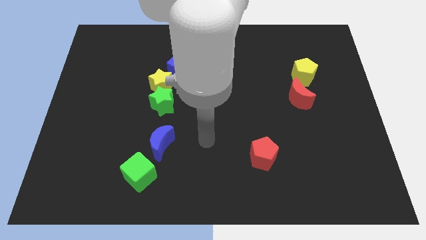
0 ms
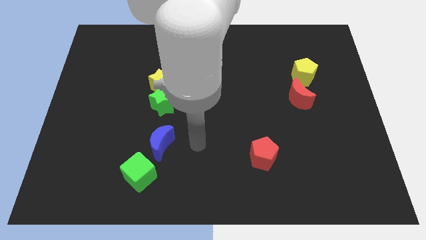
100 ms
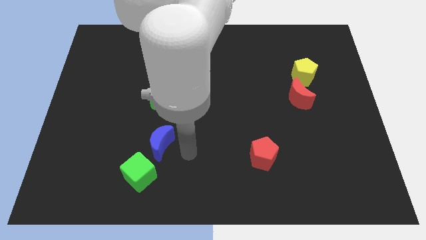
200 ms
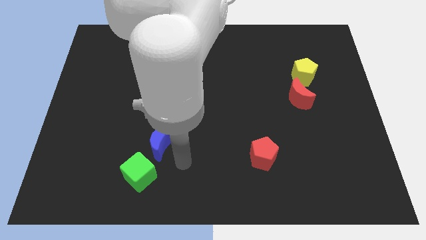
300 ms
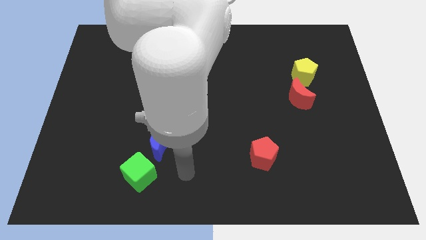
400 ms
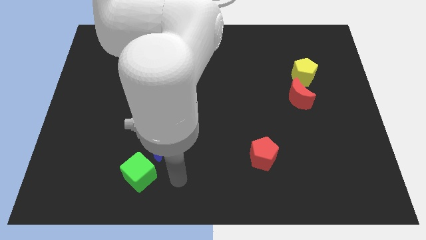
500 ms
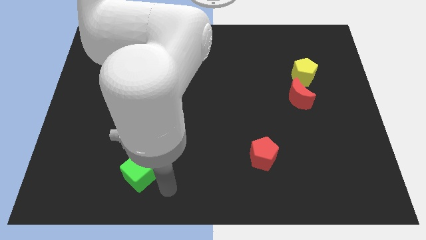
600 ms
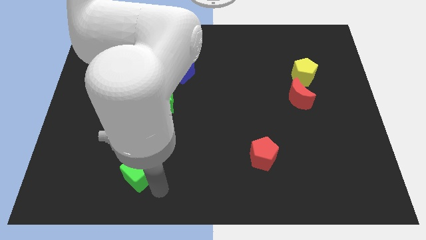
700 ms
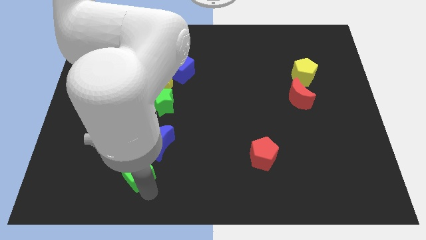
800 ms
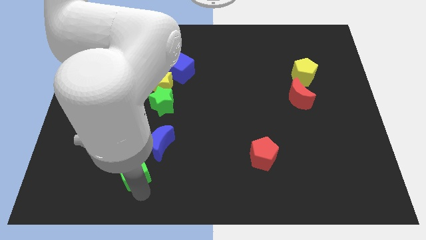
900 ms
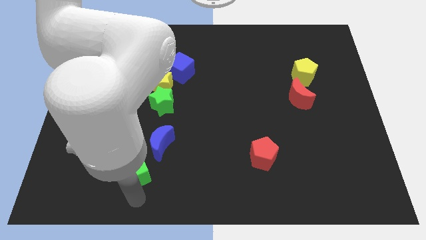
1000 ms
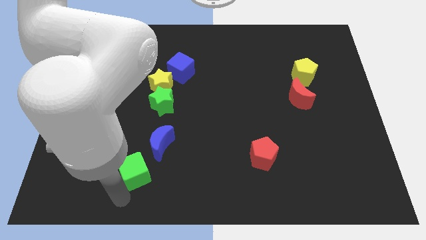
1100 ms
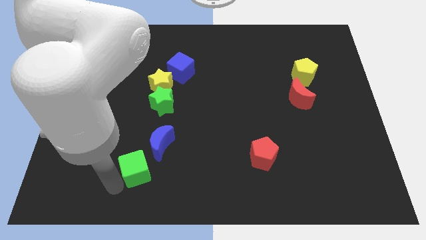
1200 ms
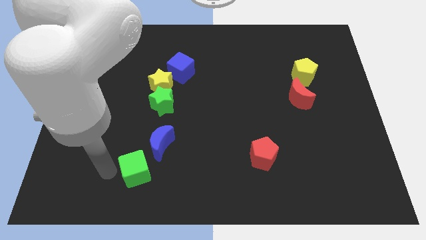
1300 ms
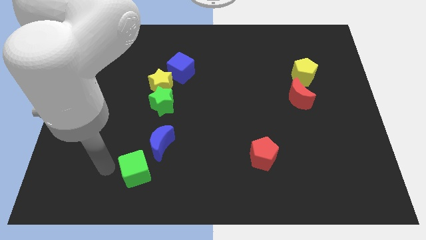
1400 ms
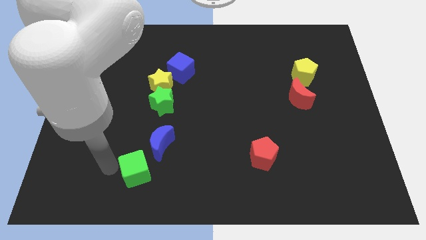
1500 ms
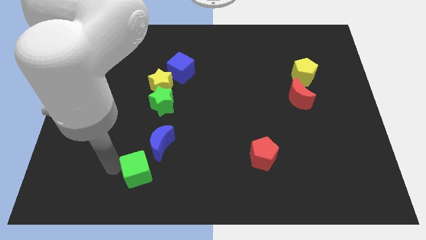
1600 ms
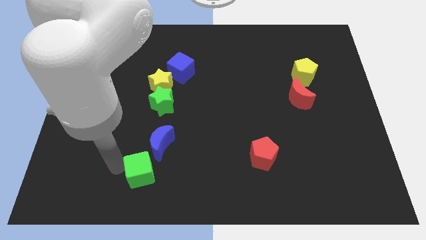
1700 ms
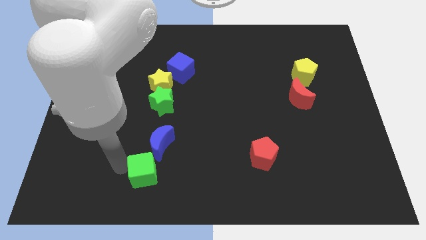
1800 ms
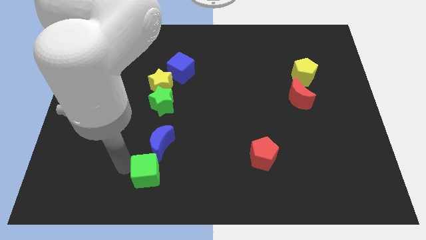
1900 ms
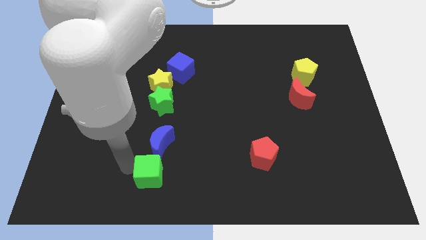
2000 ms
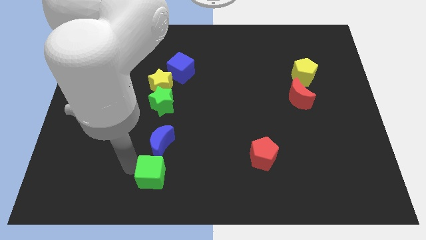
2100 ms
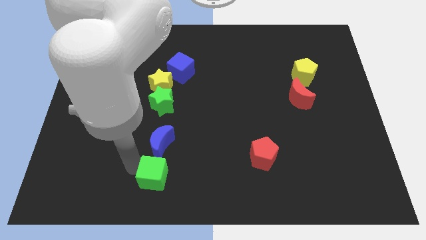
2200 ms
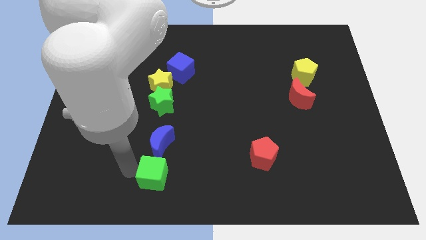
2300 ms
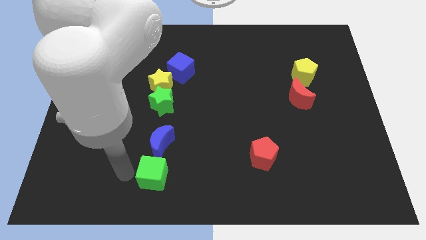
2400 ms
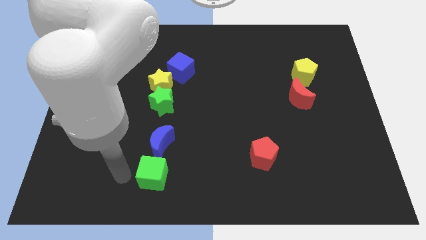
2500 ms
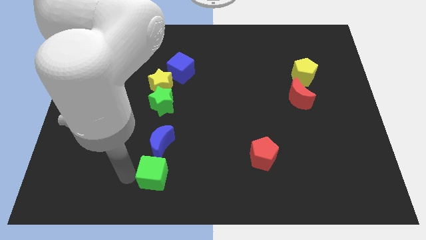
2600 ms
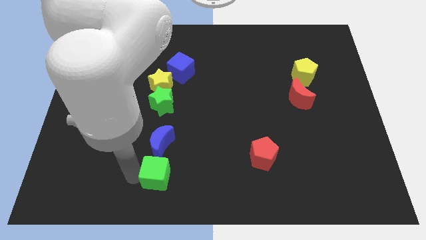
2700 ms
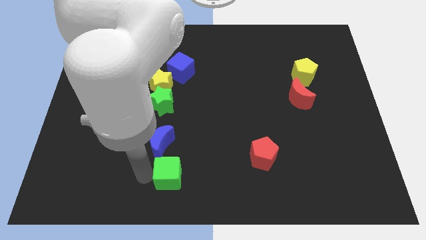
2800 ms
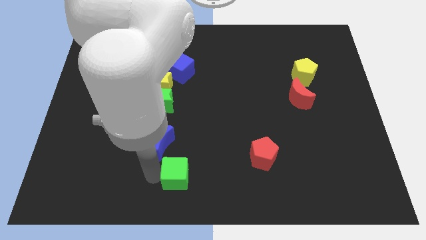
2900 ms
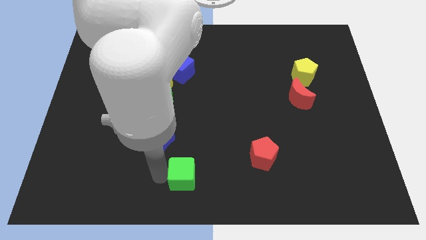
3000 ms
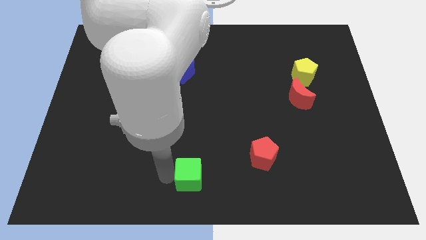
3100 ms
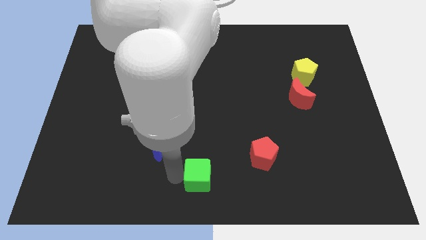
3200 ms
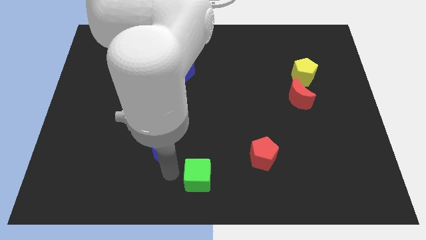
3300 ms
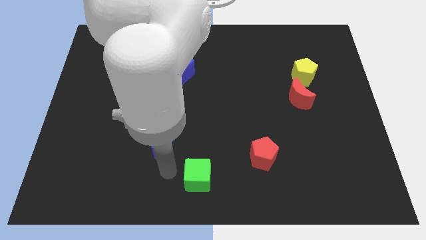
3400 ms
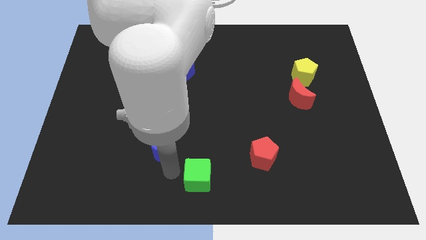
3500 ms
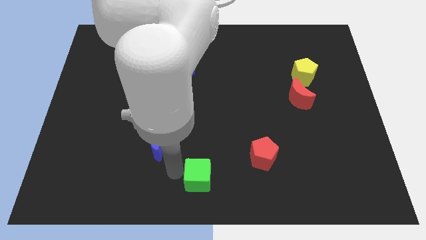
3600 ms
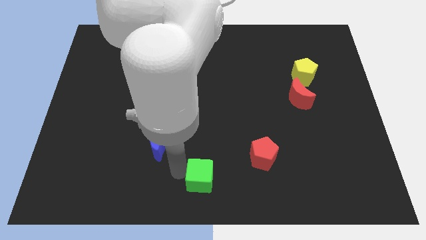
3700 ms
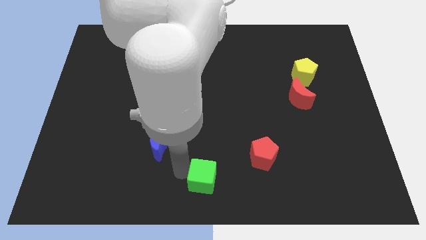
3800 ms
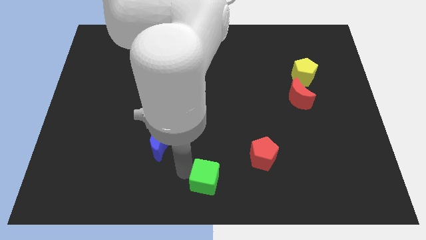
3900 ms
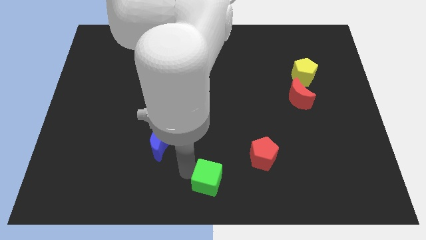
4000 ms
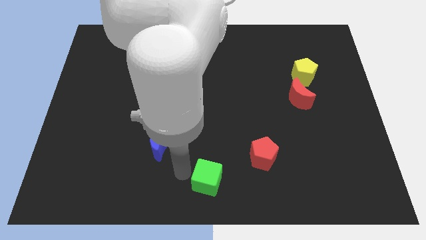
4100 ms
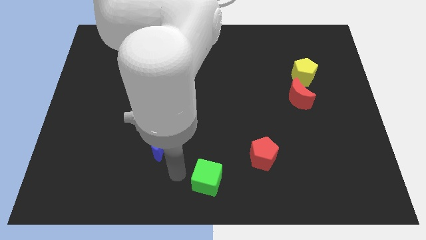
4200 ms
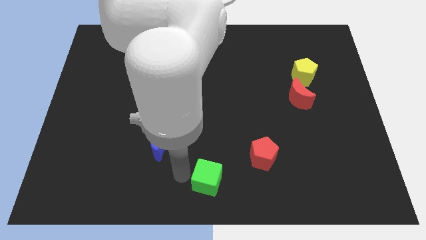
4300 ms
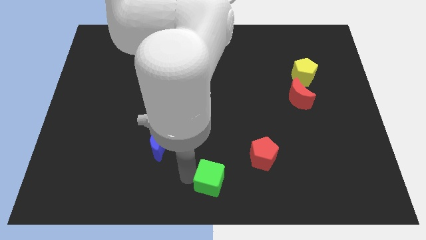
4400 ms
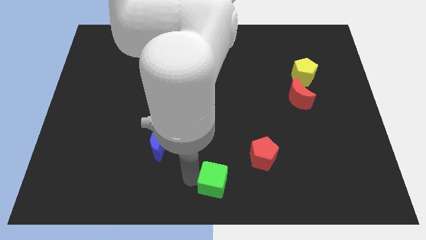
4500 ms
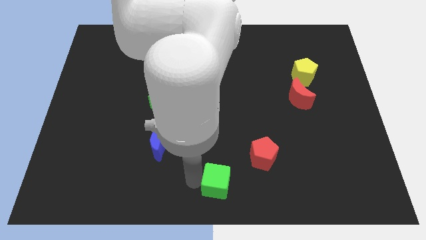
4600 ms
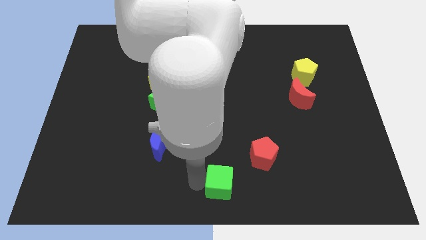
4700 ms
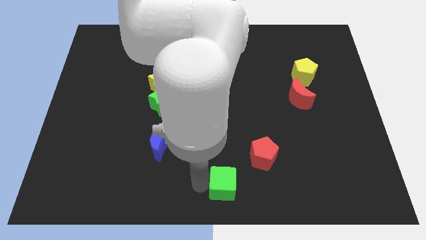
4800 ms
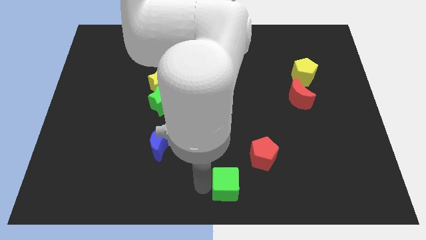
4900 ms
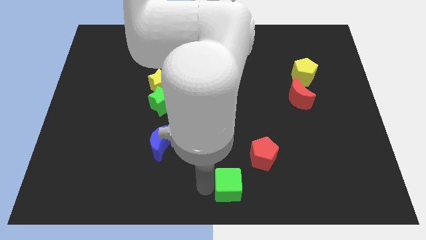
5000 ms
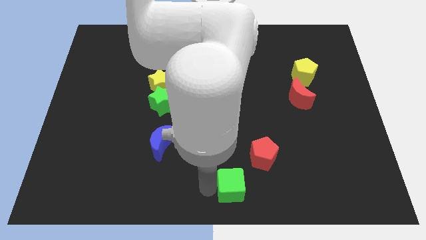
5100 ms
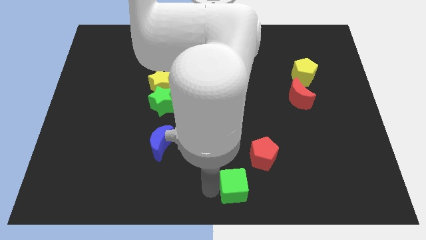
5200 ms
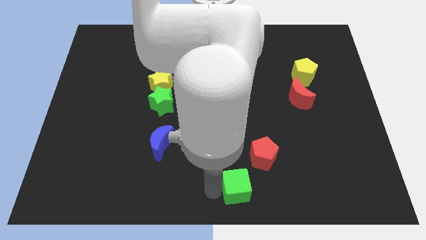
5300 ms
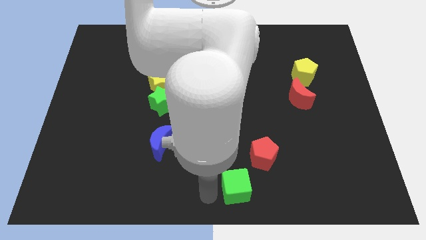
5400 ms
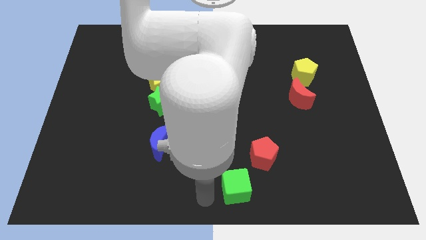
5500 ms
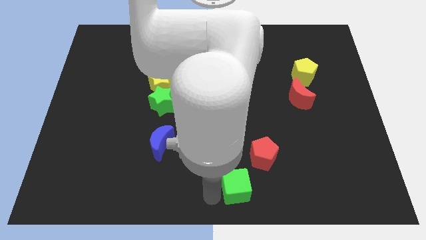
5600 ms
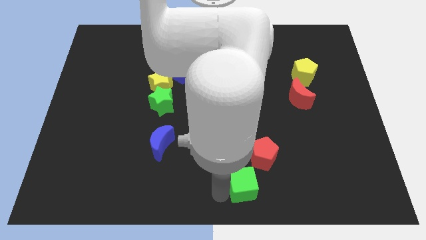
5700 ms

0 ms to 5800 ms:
slide the green cube to the right

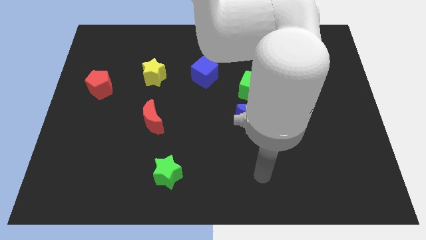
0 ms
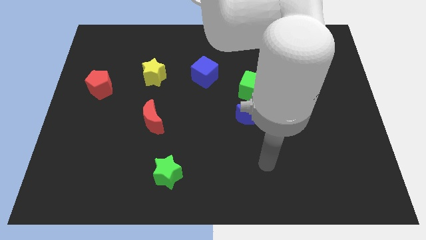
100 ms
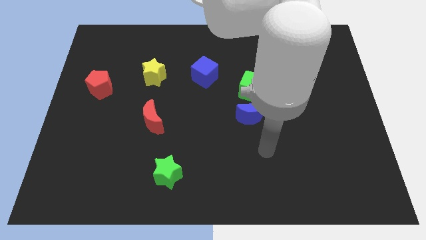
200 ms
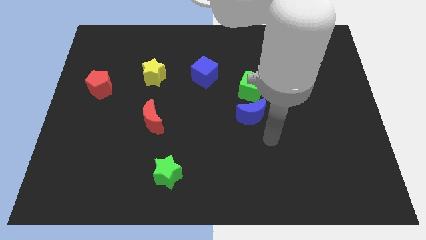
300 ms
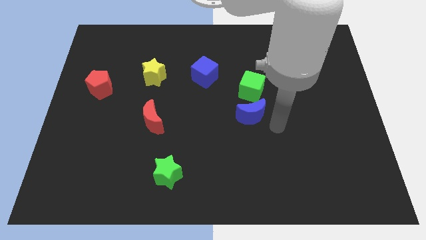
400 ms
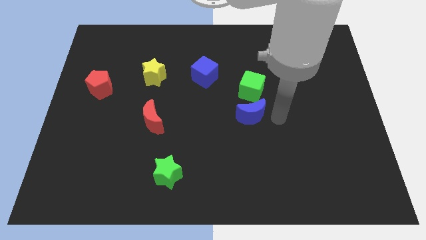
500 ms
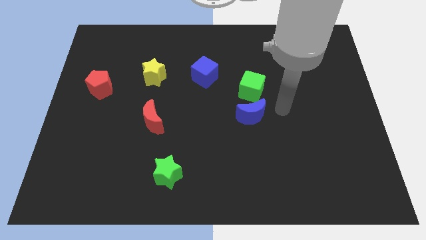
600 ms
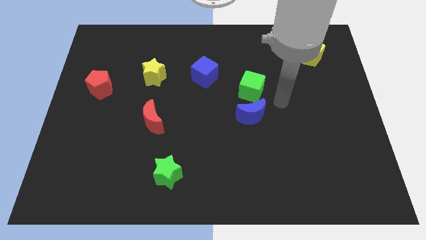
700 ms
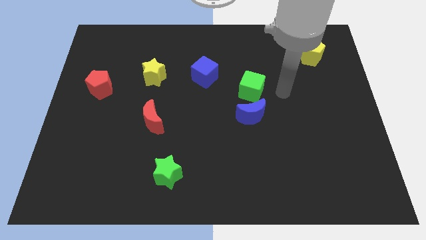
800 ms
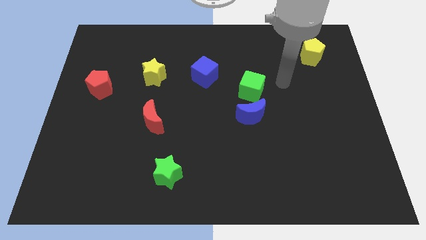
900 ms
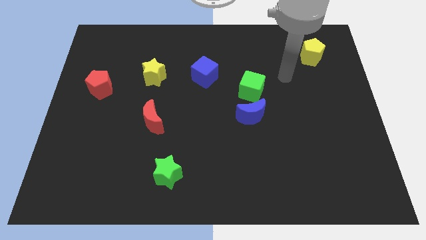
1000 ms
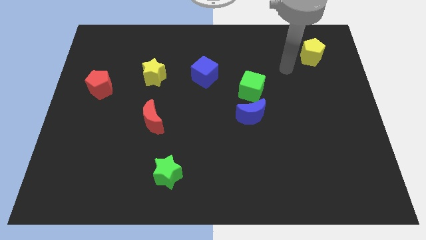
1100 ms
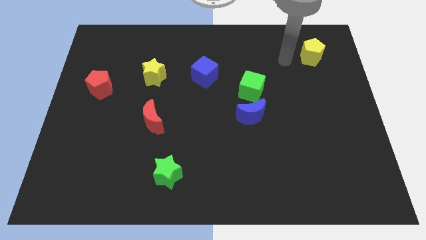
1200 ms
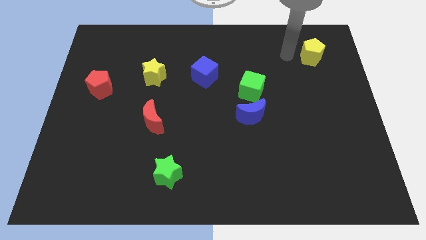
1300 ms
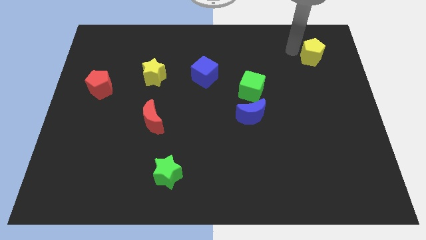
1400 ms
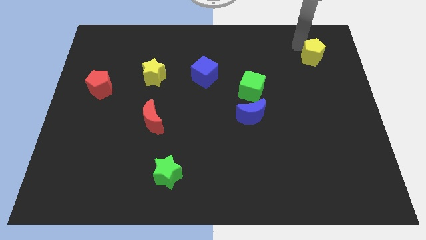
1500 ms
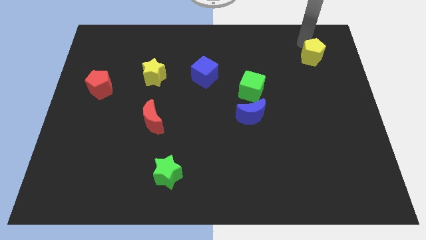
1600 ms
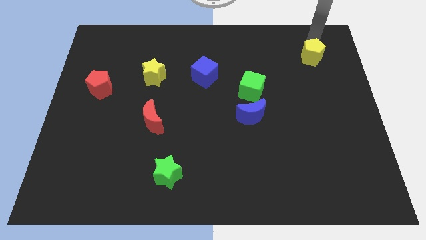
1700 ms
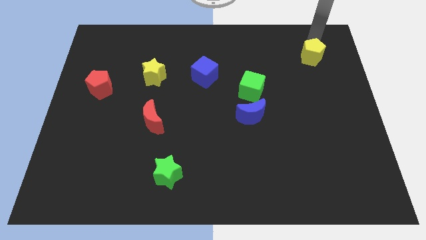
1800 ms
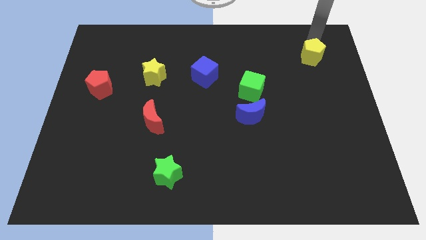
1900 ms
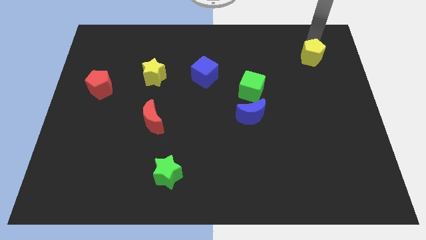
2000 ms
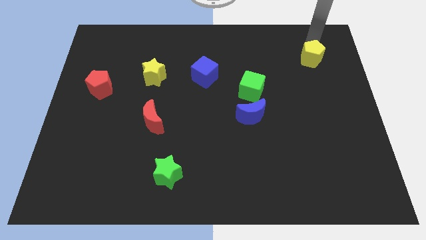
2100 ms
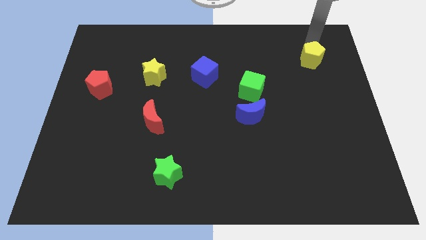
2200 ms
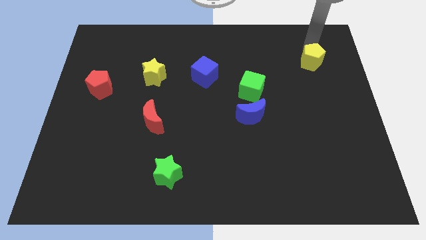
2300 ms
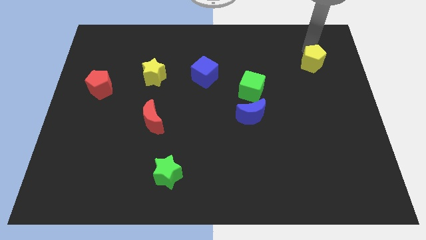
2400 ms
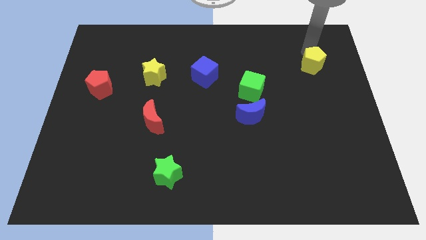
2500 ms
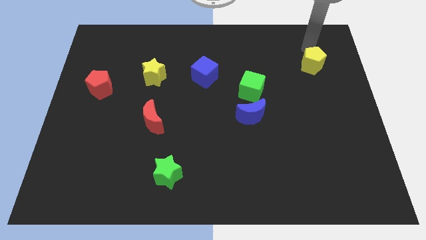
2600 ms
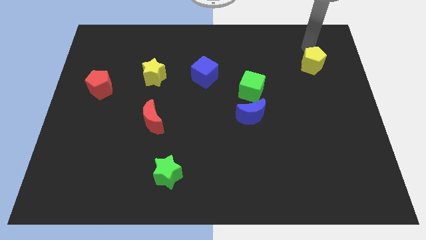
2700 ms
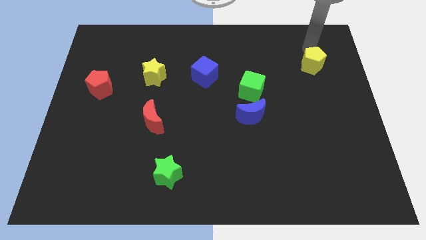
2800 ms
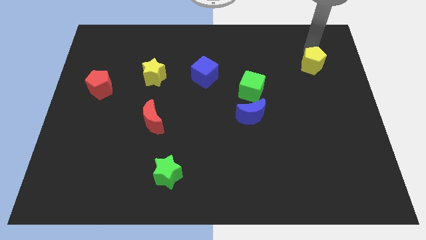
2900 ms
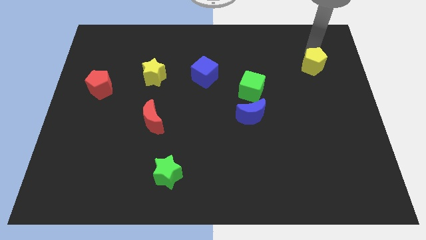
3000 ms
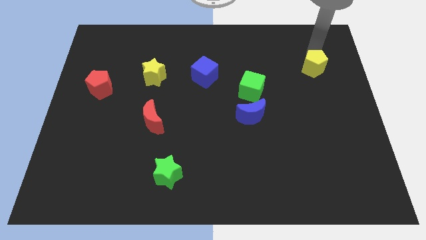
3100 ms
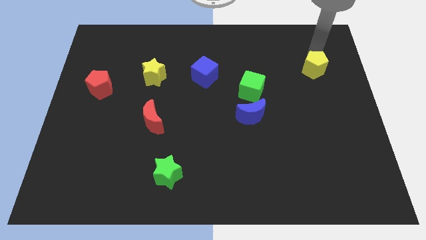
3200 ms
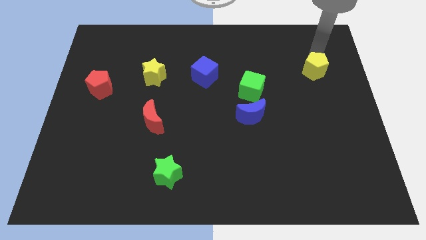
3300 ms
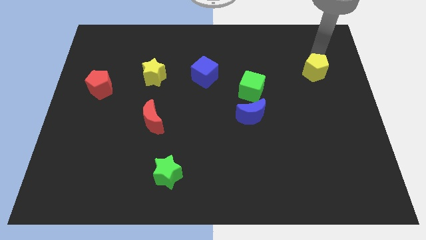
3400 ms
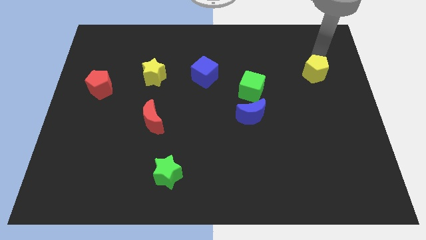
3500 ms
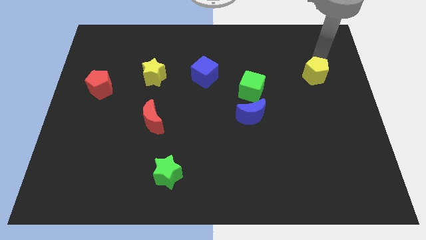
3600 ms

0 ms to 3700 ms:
move the yellow pentagon downwards somewhat
